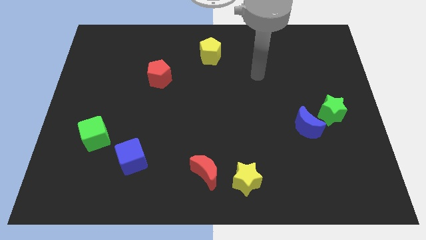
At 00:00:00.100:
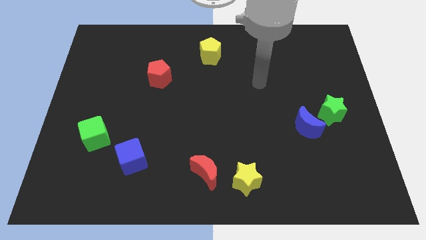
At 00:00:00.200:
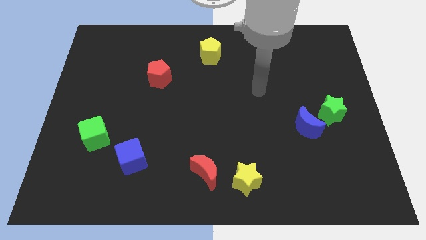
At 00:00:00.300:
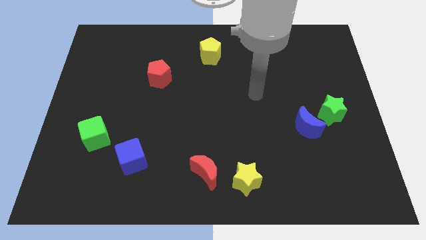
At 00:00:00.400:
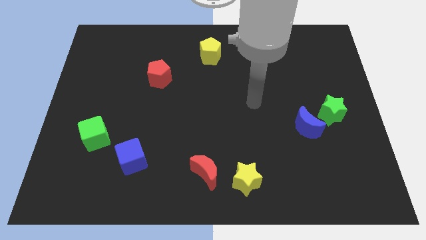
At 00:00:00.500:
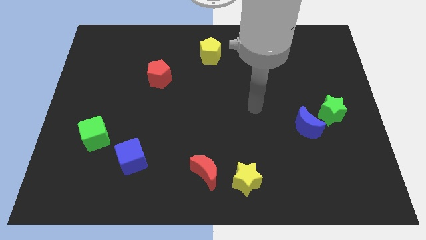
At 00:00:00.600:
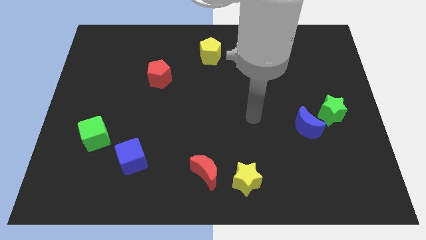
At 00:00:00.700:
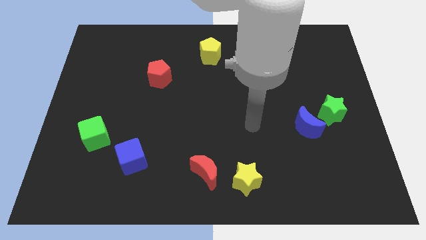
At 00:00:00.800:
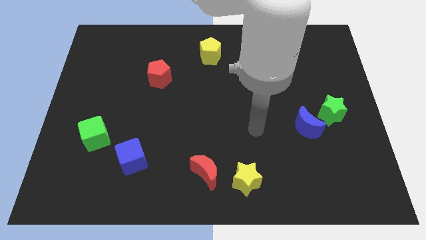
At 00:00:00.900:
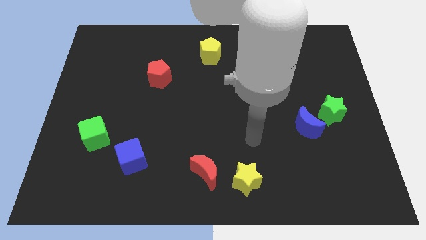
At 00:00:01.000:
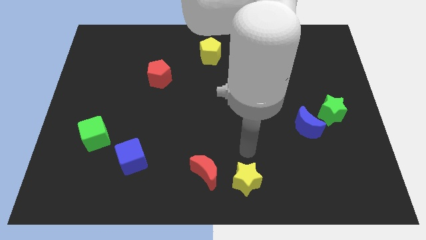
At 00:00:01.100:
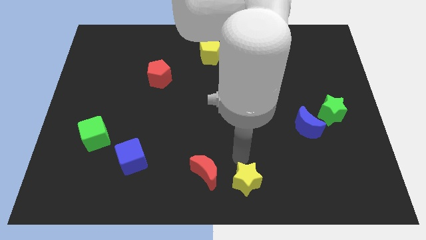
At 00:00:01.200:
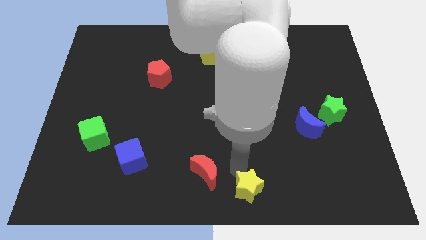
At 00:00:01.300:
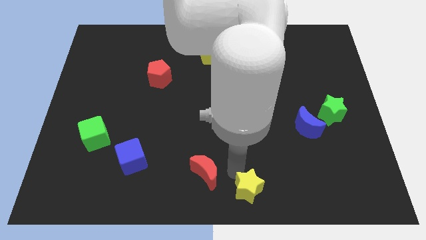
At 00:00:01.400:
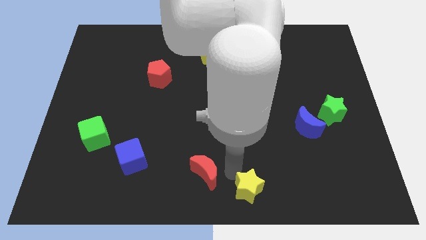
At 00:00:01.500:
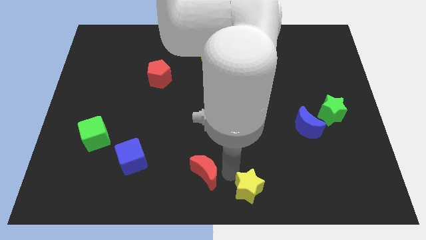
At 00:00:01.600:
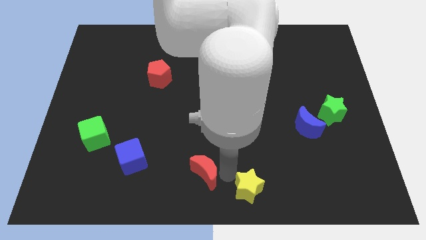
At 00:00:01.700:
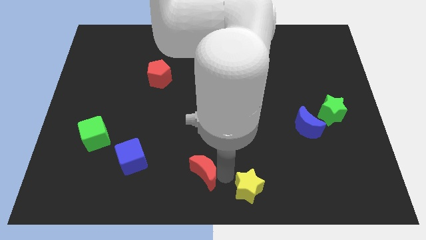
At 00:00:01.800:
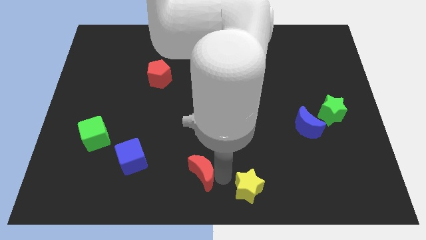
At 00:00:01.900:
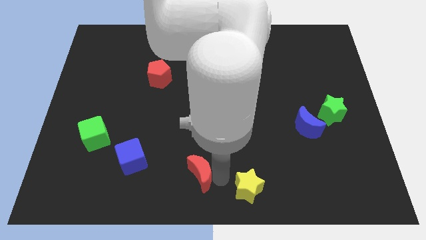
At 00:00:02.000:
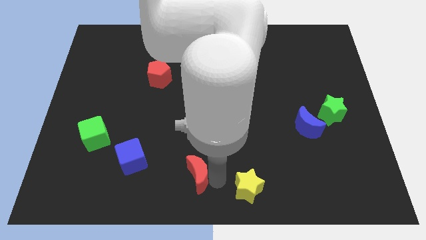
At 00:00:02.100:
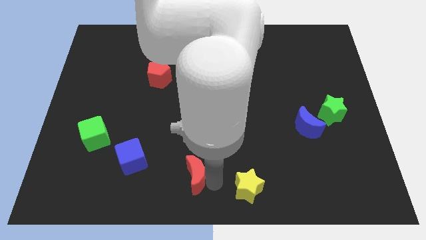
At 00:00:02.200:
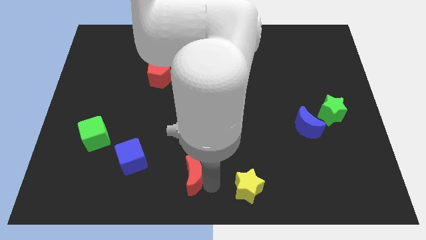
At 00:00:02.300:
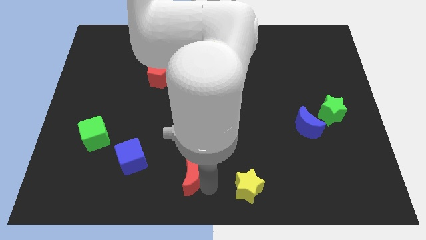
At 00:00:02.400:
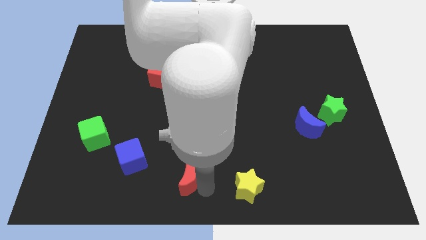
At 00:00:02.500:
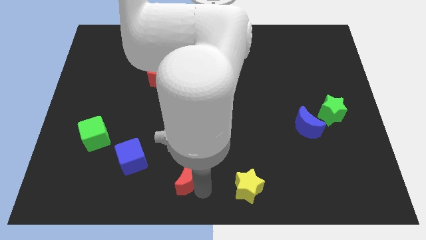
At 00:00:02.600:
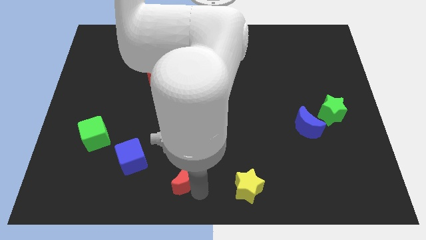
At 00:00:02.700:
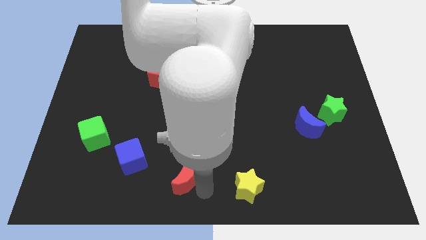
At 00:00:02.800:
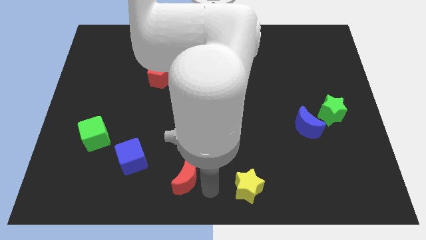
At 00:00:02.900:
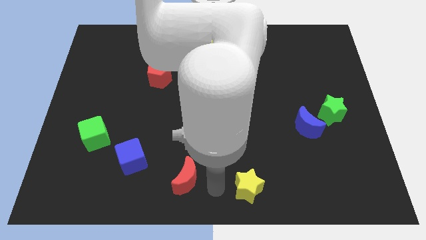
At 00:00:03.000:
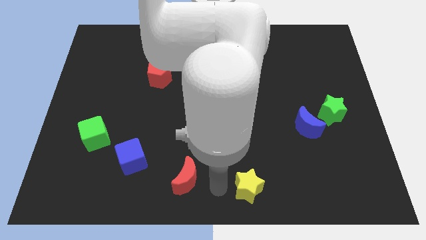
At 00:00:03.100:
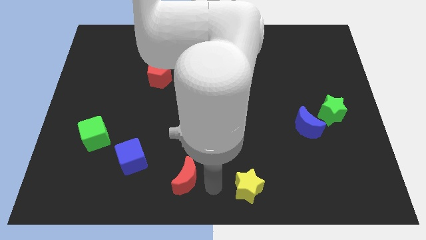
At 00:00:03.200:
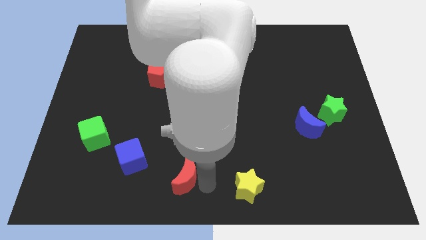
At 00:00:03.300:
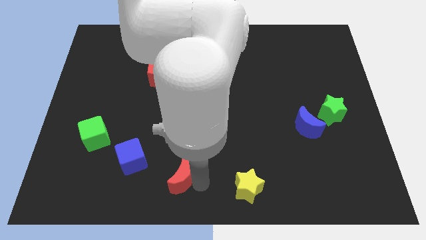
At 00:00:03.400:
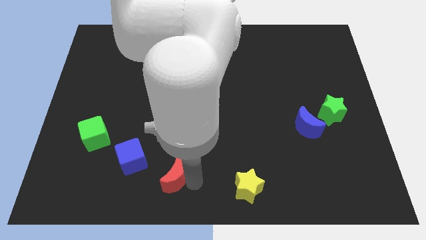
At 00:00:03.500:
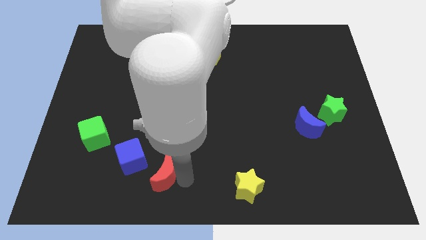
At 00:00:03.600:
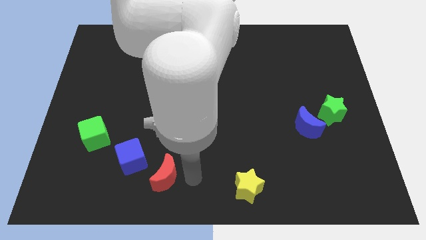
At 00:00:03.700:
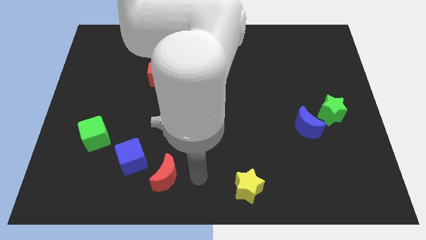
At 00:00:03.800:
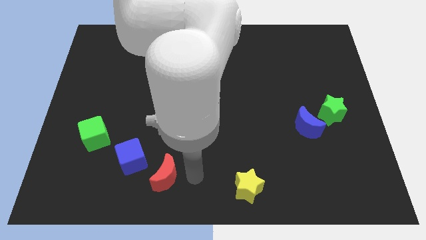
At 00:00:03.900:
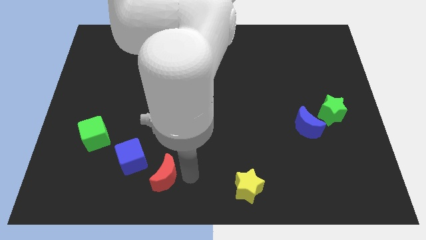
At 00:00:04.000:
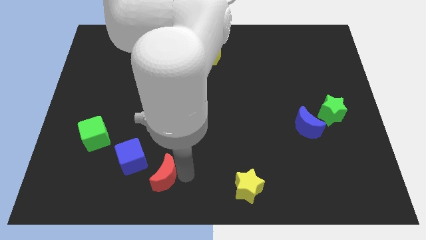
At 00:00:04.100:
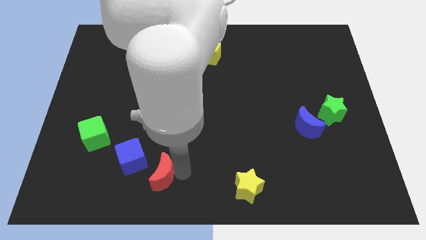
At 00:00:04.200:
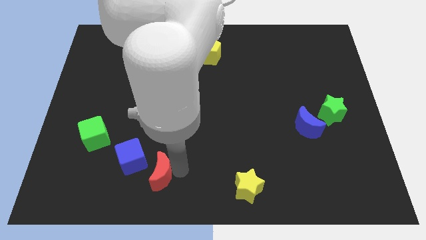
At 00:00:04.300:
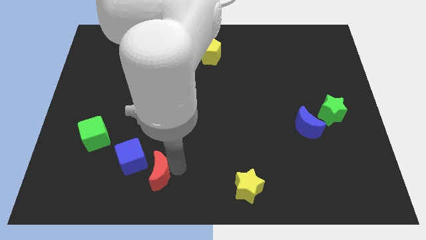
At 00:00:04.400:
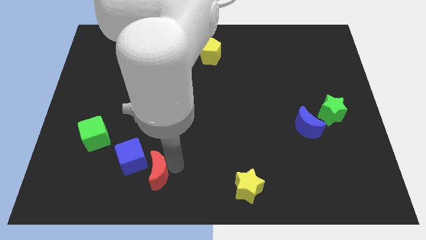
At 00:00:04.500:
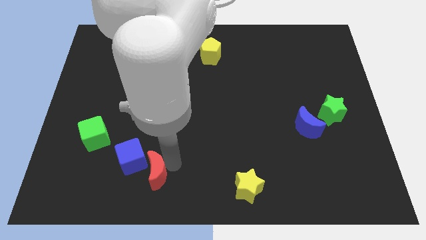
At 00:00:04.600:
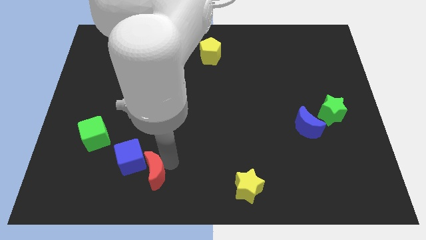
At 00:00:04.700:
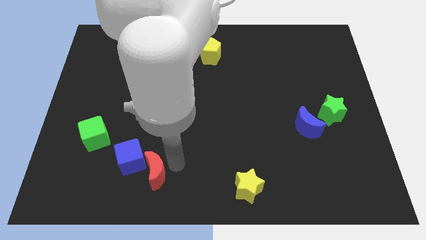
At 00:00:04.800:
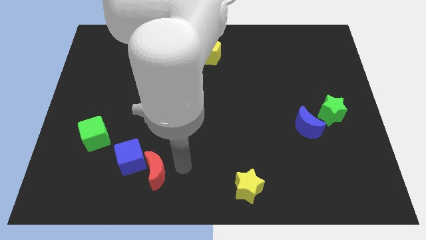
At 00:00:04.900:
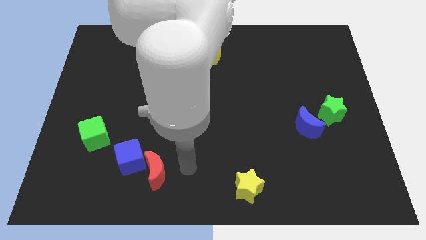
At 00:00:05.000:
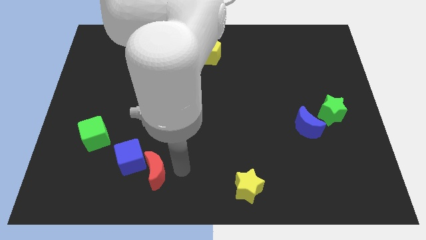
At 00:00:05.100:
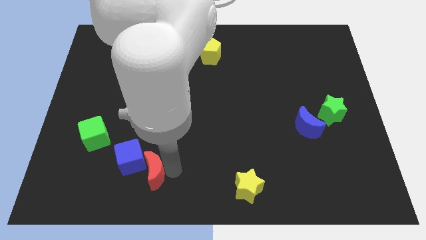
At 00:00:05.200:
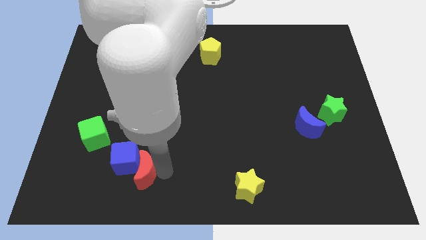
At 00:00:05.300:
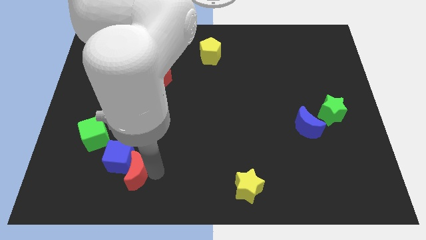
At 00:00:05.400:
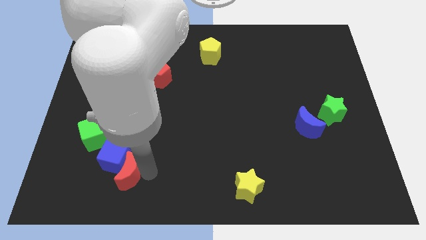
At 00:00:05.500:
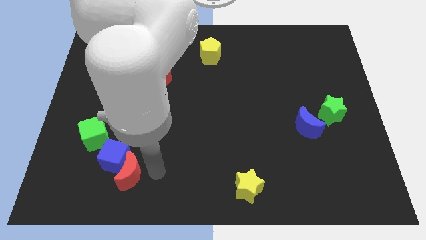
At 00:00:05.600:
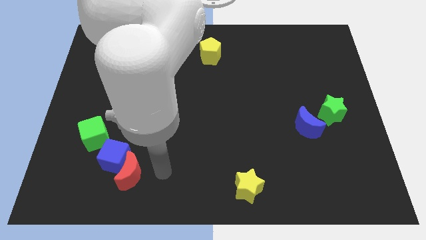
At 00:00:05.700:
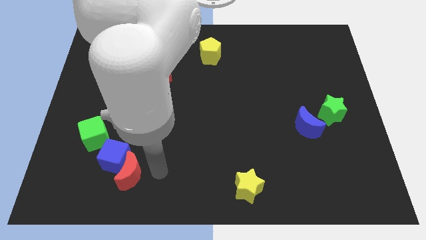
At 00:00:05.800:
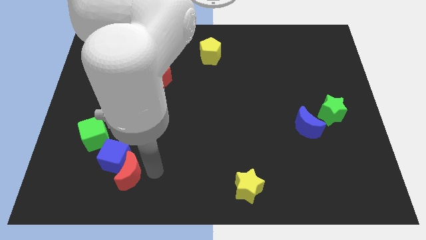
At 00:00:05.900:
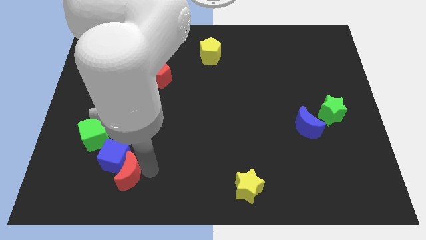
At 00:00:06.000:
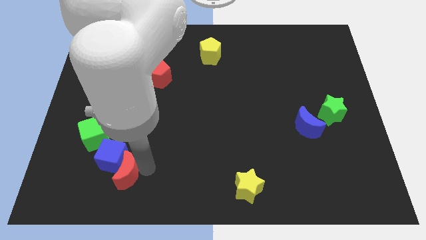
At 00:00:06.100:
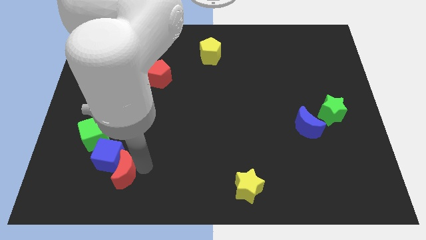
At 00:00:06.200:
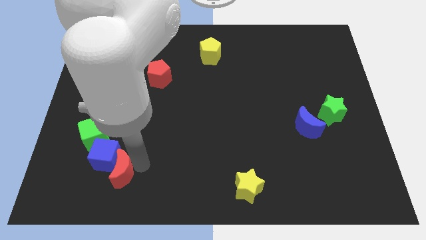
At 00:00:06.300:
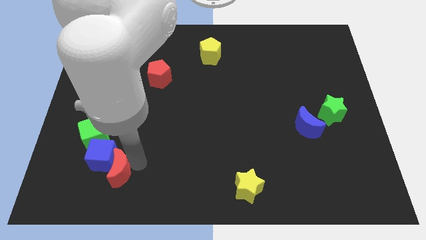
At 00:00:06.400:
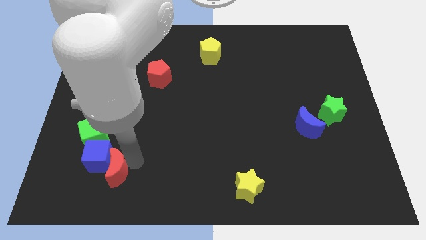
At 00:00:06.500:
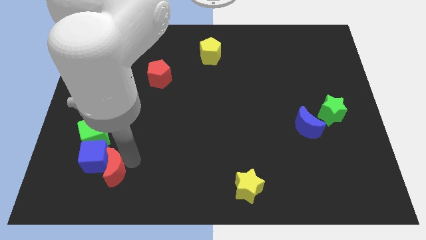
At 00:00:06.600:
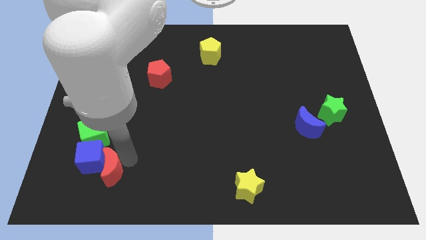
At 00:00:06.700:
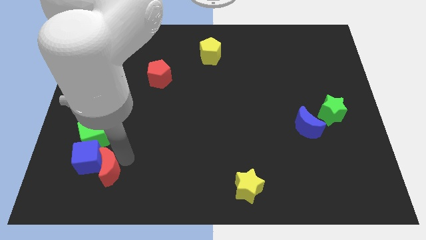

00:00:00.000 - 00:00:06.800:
put the red moon to the bottom side of the green cube

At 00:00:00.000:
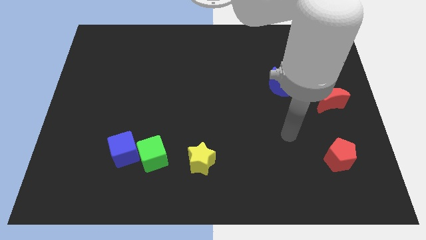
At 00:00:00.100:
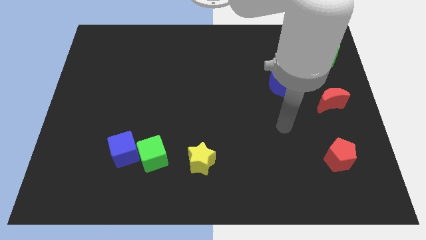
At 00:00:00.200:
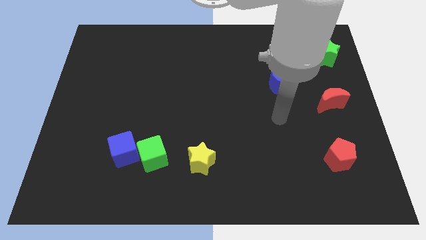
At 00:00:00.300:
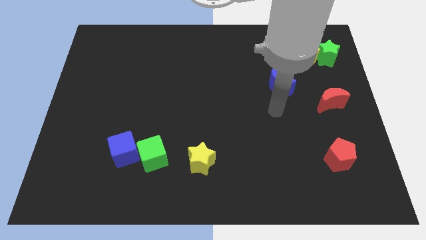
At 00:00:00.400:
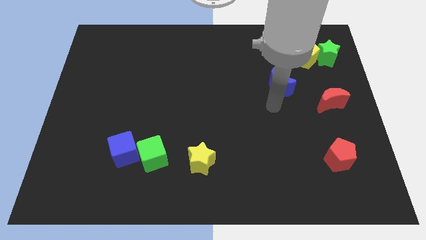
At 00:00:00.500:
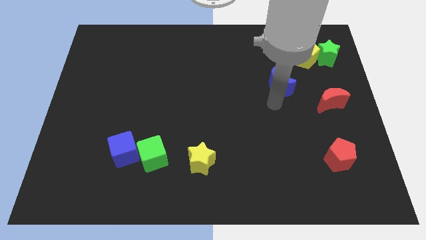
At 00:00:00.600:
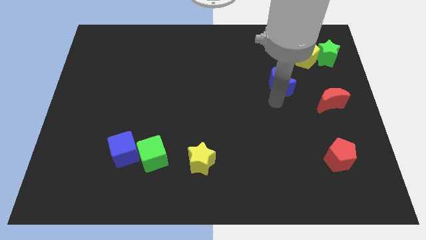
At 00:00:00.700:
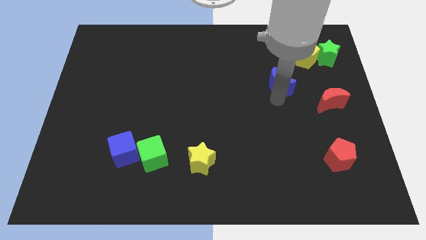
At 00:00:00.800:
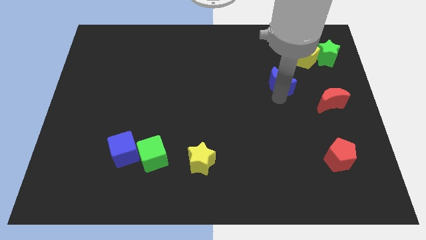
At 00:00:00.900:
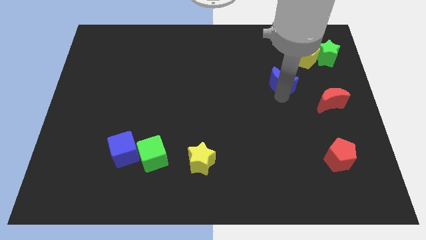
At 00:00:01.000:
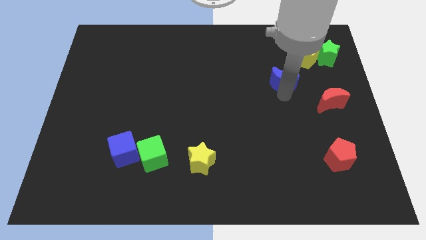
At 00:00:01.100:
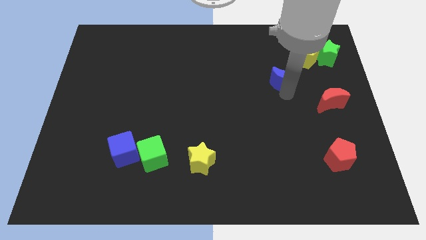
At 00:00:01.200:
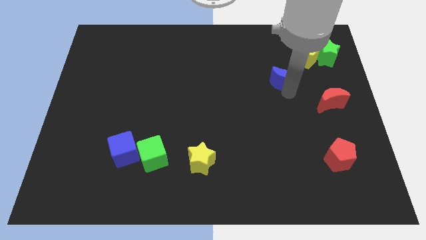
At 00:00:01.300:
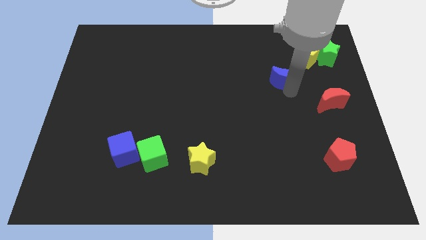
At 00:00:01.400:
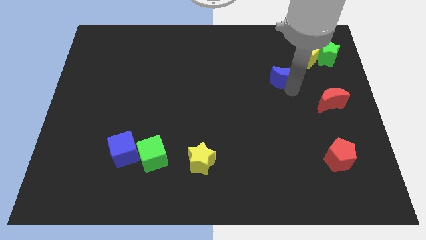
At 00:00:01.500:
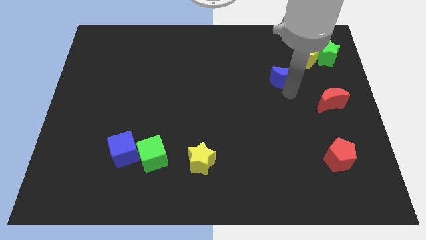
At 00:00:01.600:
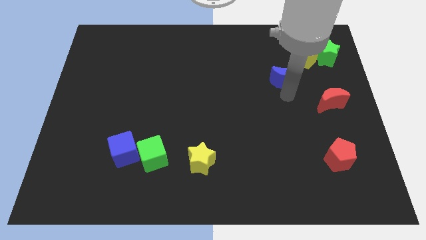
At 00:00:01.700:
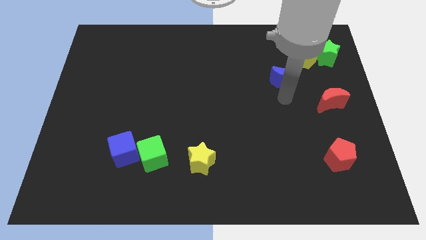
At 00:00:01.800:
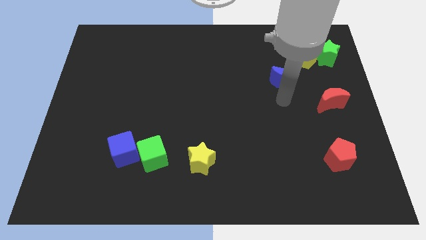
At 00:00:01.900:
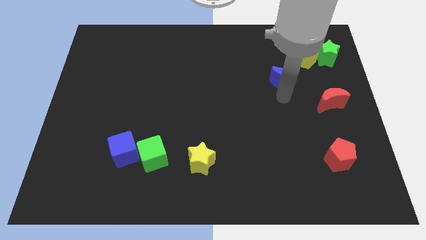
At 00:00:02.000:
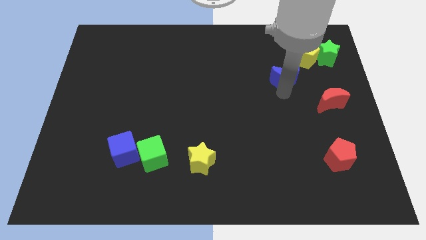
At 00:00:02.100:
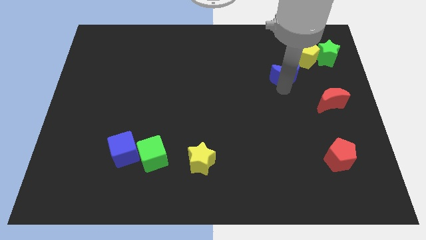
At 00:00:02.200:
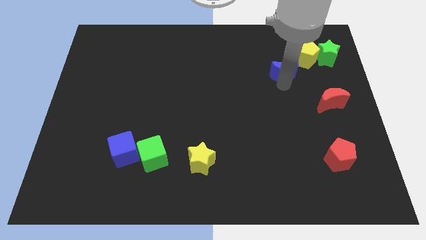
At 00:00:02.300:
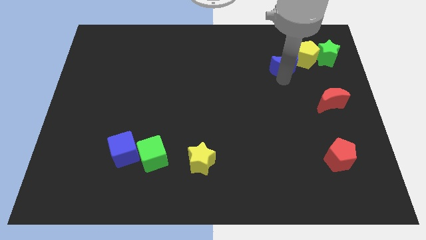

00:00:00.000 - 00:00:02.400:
slide the blue moon left of the green star
